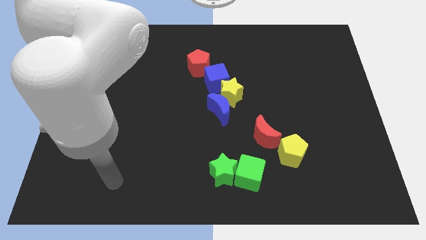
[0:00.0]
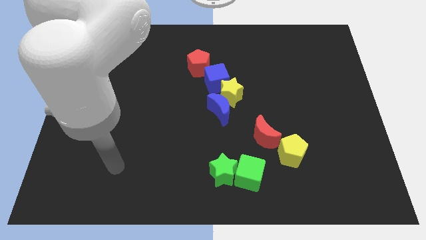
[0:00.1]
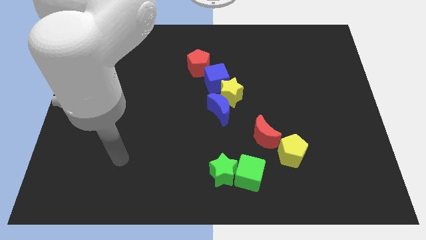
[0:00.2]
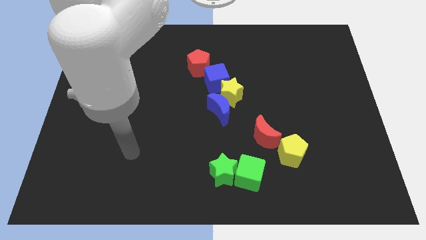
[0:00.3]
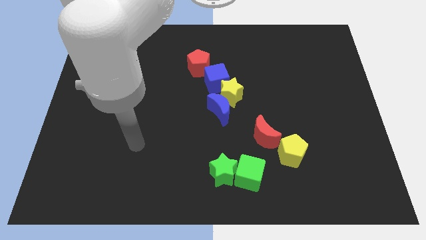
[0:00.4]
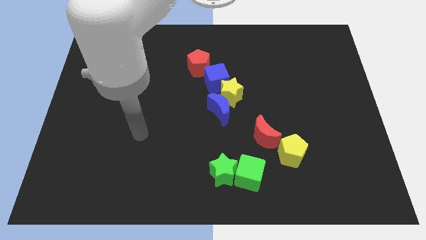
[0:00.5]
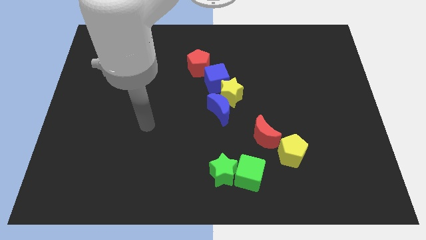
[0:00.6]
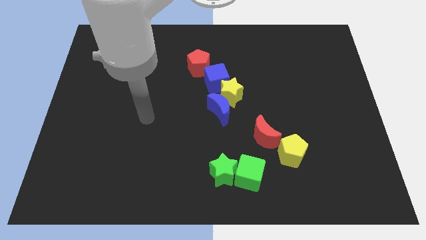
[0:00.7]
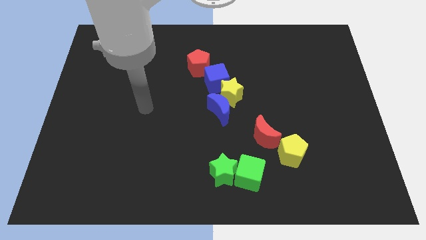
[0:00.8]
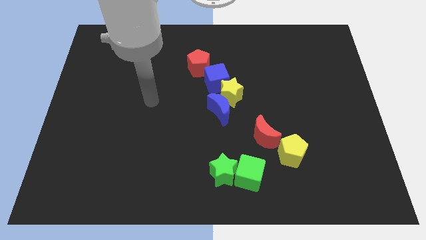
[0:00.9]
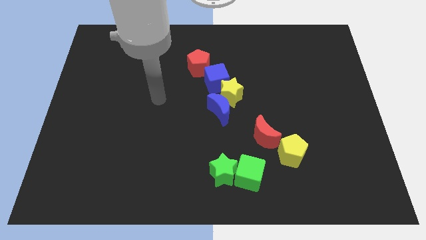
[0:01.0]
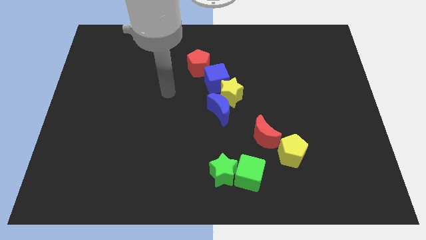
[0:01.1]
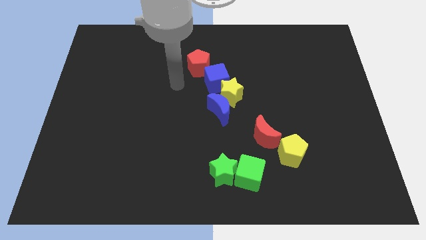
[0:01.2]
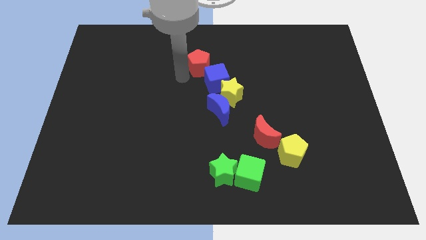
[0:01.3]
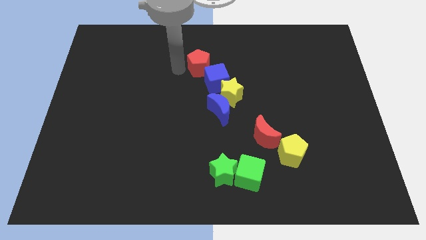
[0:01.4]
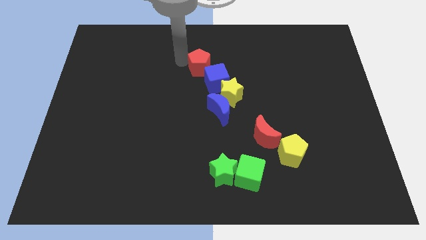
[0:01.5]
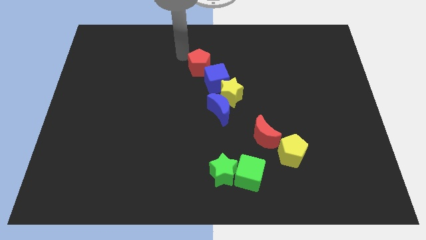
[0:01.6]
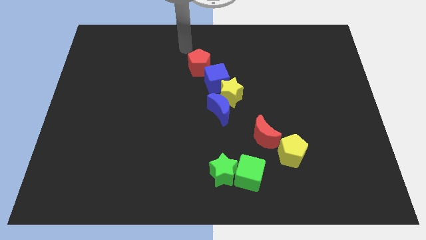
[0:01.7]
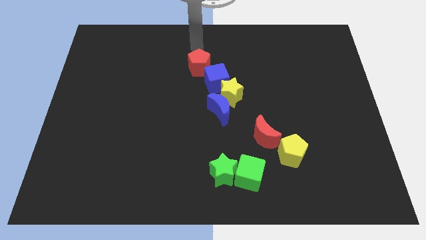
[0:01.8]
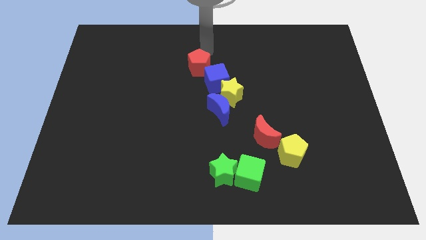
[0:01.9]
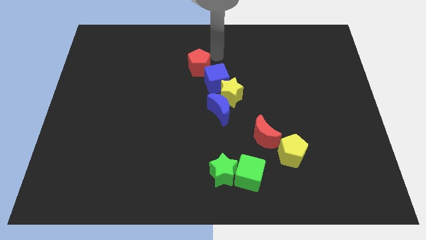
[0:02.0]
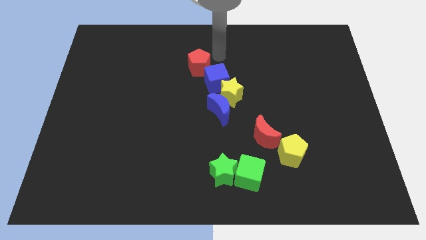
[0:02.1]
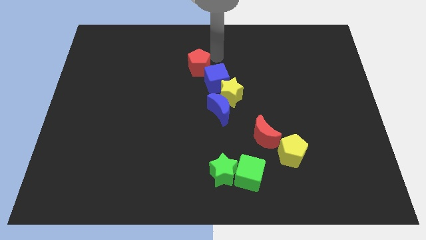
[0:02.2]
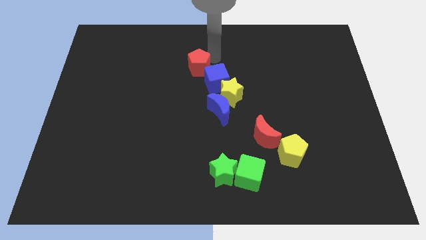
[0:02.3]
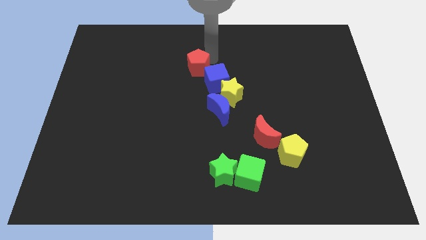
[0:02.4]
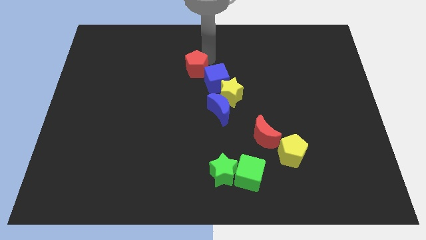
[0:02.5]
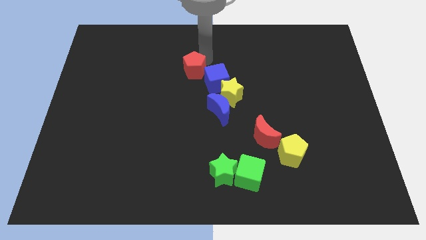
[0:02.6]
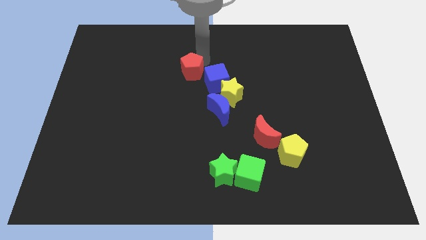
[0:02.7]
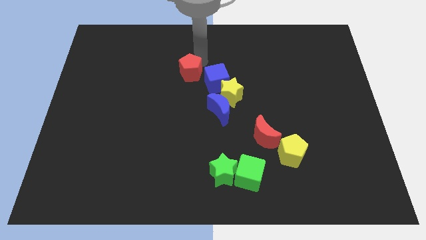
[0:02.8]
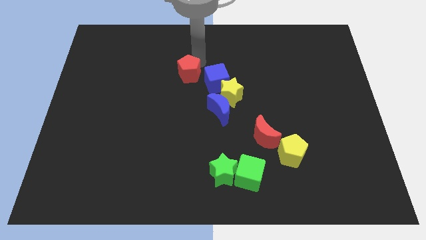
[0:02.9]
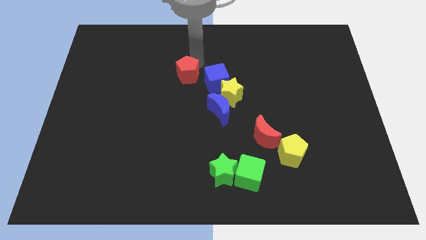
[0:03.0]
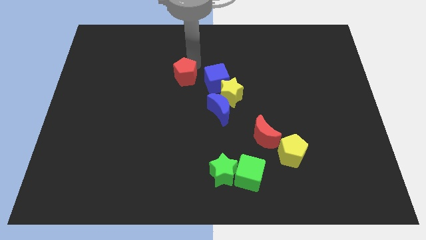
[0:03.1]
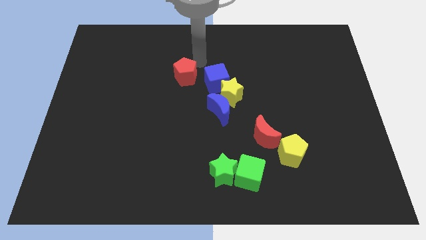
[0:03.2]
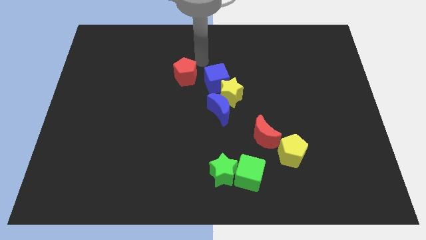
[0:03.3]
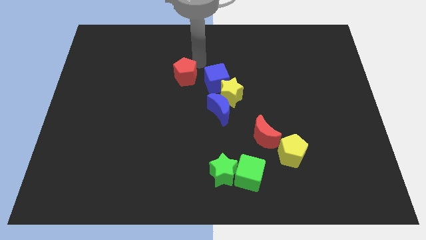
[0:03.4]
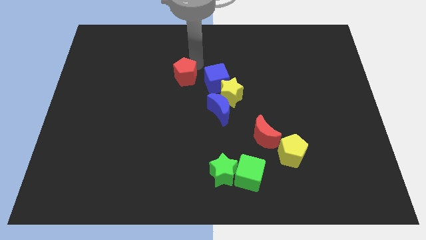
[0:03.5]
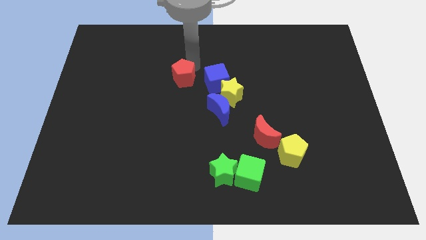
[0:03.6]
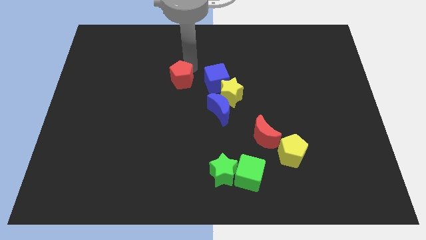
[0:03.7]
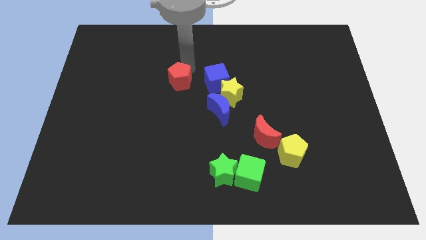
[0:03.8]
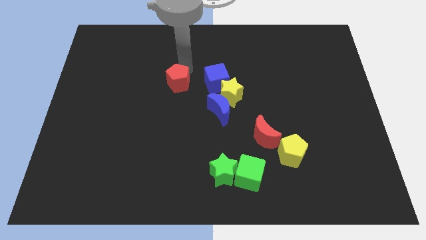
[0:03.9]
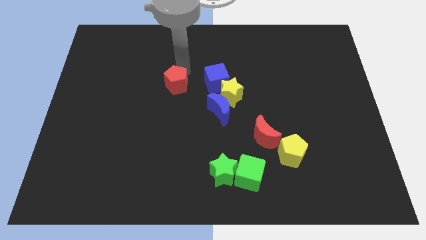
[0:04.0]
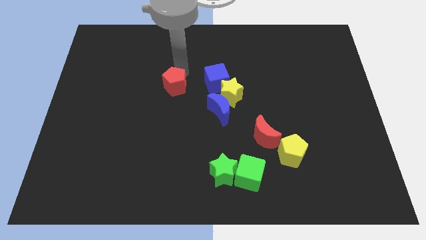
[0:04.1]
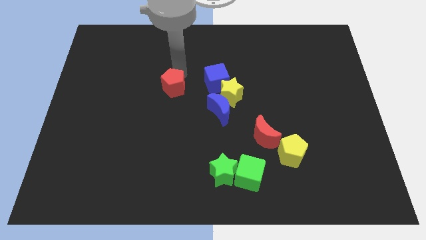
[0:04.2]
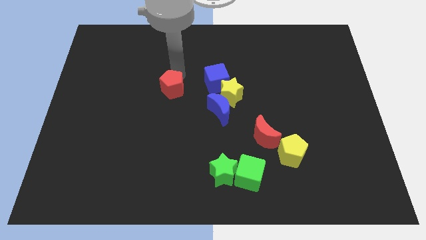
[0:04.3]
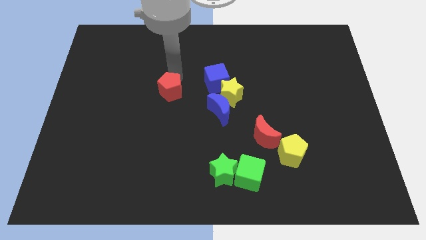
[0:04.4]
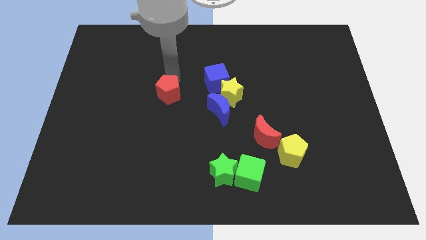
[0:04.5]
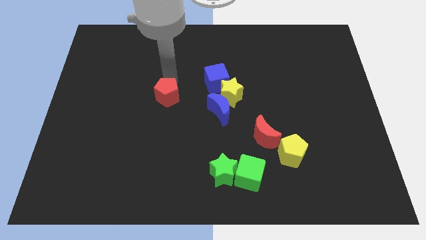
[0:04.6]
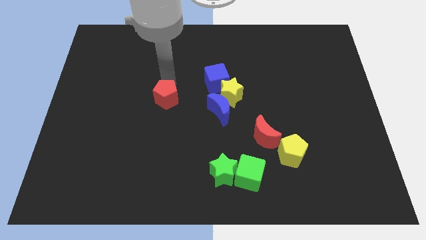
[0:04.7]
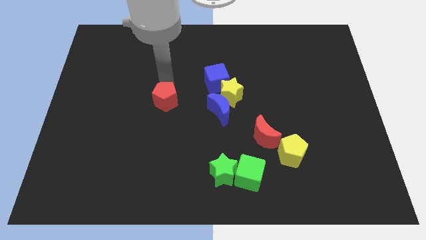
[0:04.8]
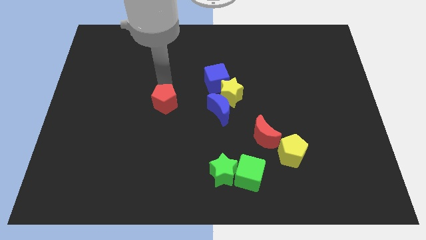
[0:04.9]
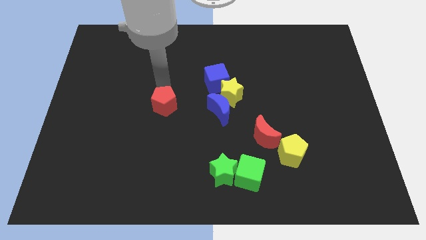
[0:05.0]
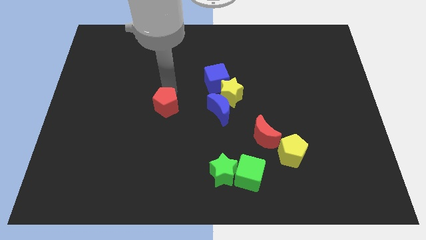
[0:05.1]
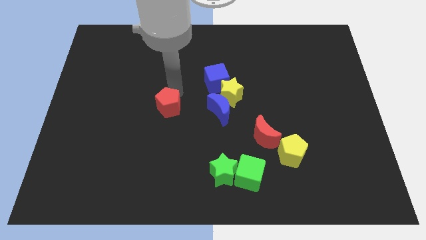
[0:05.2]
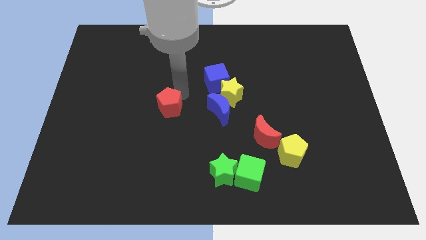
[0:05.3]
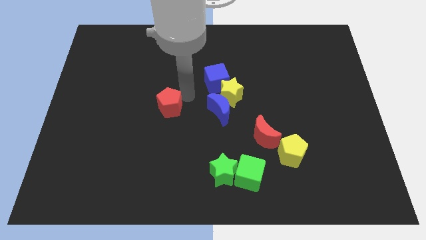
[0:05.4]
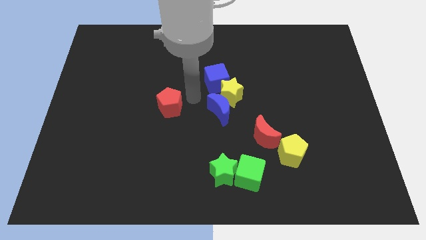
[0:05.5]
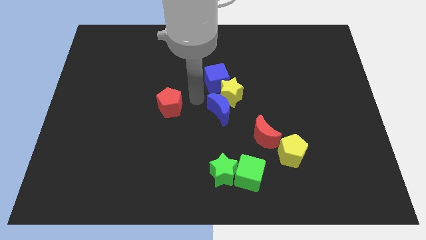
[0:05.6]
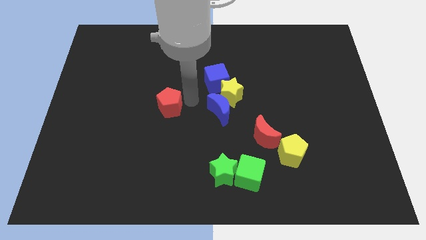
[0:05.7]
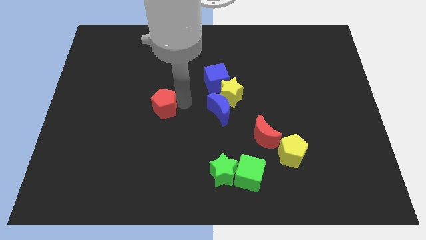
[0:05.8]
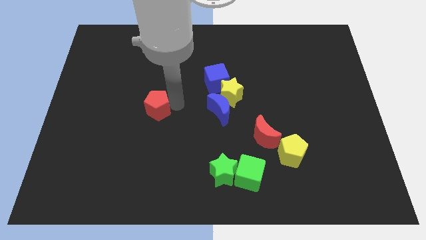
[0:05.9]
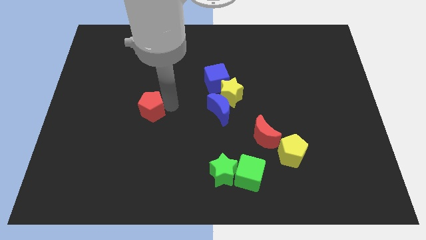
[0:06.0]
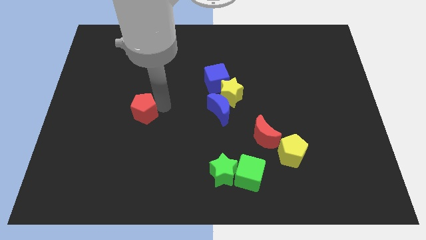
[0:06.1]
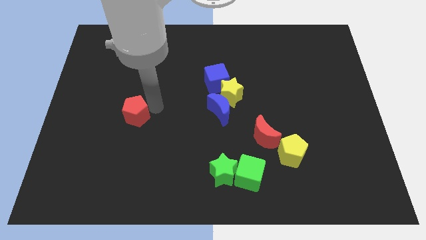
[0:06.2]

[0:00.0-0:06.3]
slide the red pentagon diagonally down and left

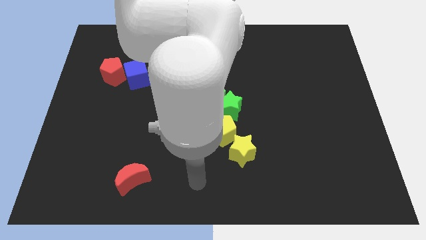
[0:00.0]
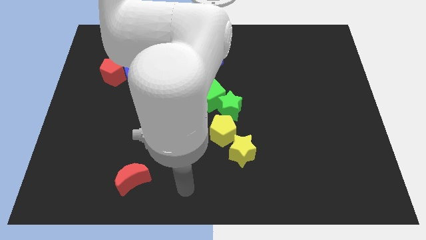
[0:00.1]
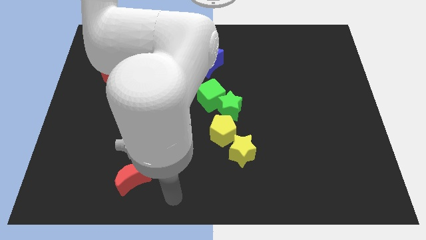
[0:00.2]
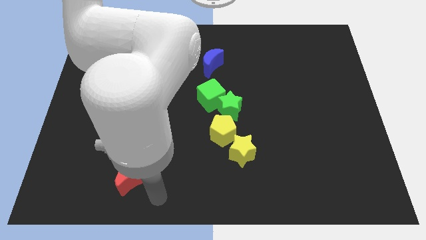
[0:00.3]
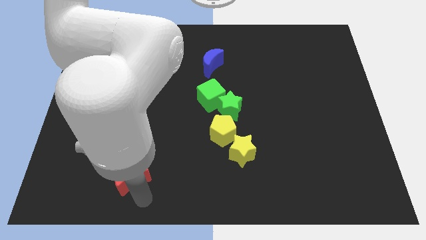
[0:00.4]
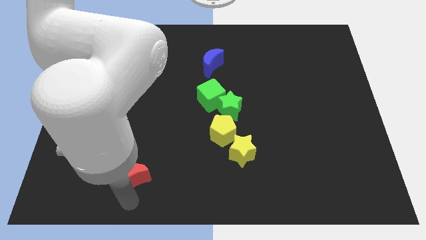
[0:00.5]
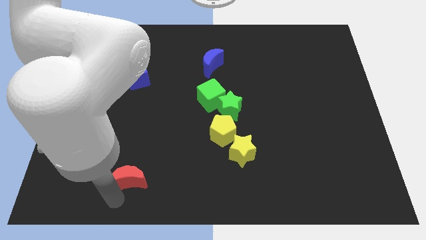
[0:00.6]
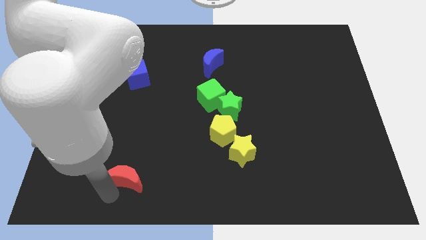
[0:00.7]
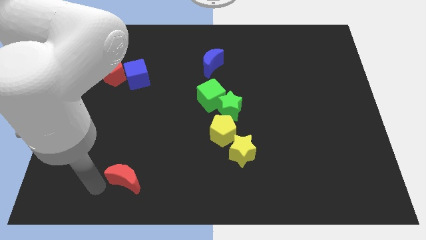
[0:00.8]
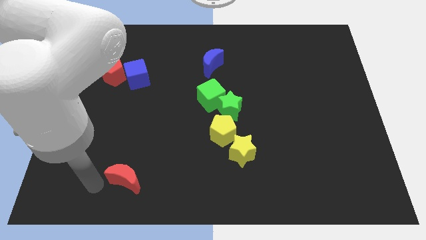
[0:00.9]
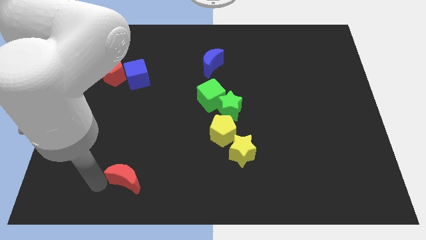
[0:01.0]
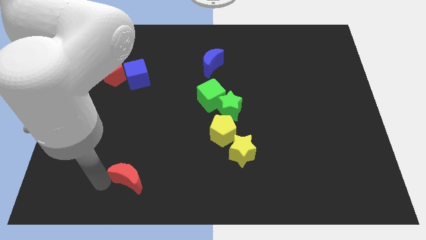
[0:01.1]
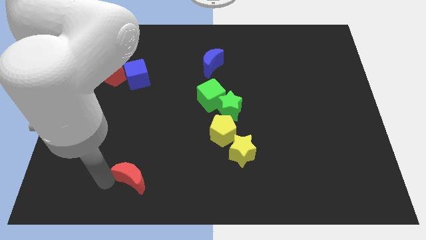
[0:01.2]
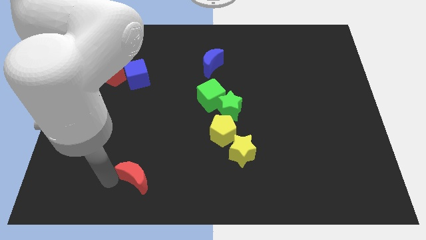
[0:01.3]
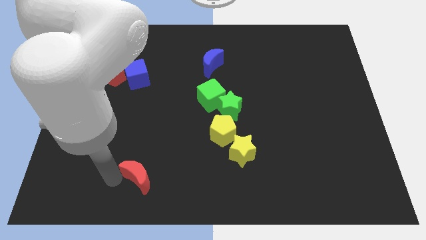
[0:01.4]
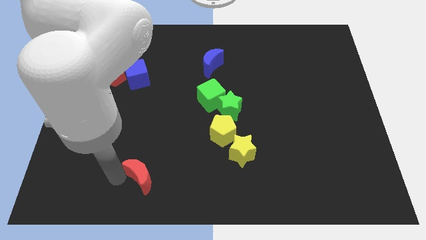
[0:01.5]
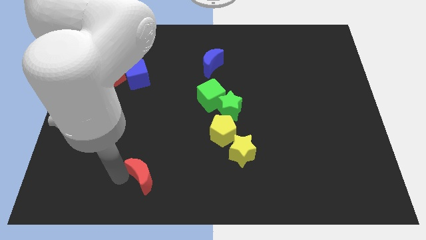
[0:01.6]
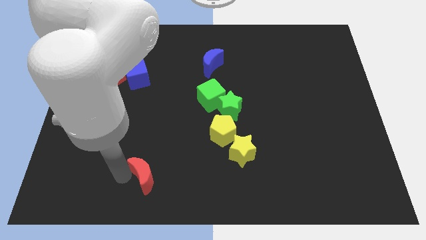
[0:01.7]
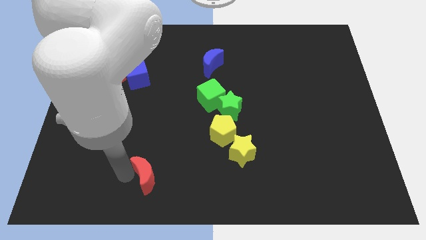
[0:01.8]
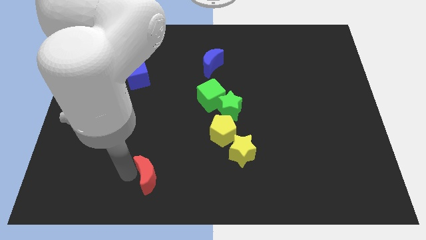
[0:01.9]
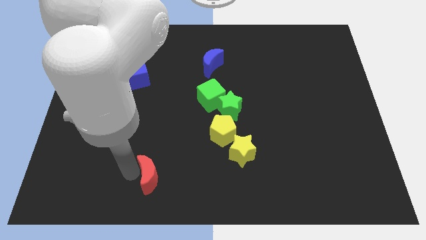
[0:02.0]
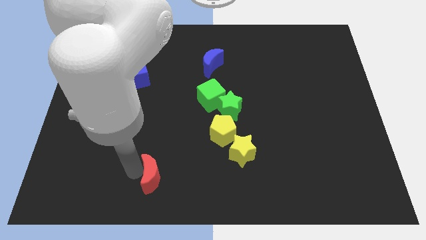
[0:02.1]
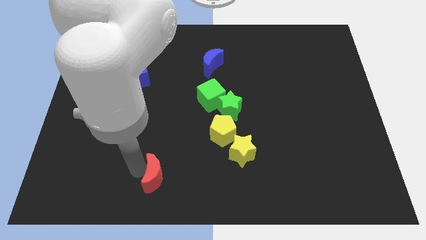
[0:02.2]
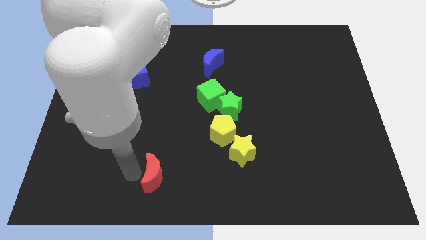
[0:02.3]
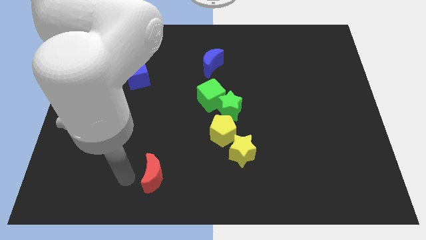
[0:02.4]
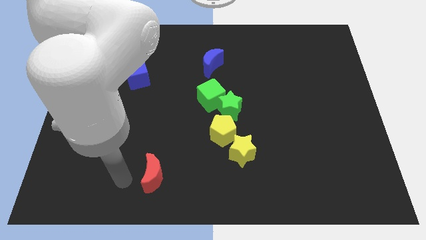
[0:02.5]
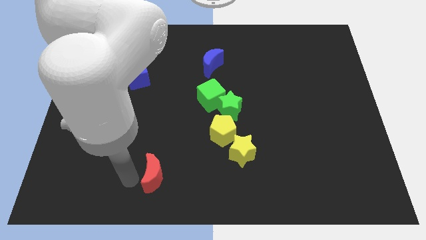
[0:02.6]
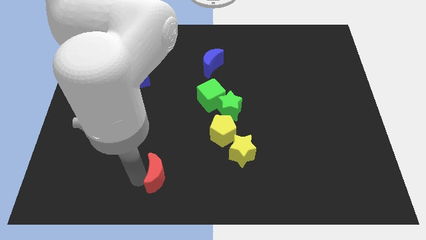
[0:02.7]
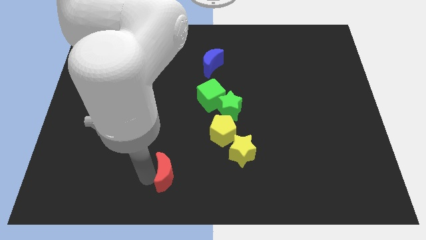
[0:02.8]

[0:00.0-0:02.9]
slightly move the red moon right
